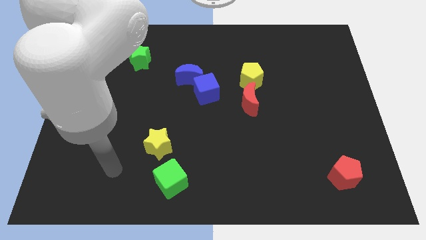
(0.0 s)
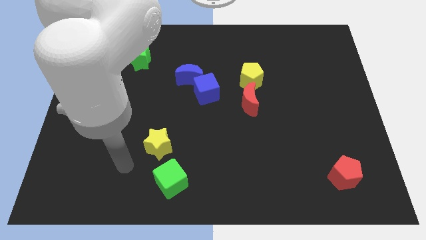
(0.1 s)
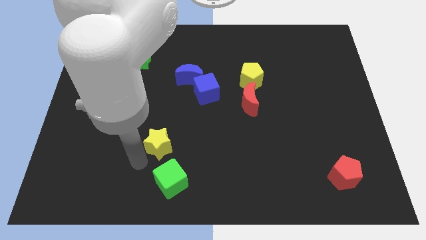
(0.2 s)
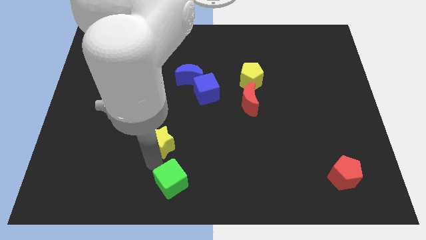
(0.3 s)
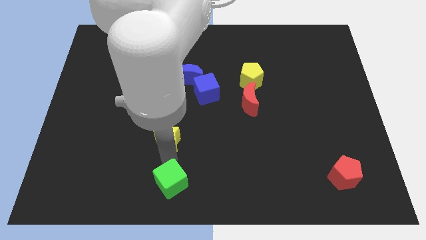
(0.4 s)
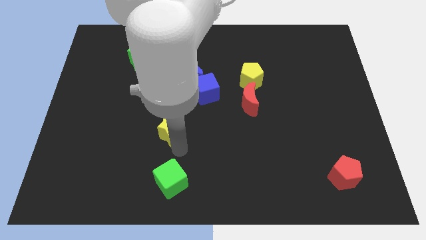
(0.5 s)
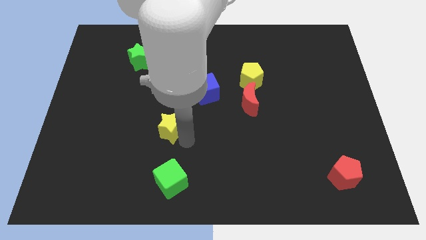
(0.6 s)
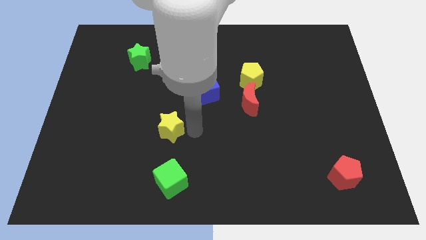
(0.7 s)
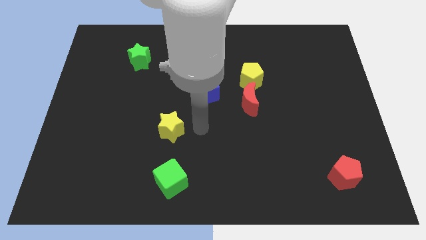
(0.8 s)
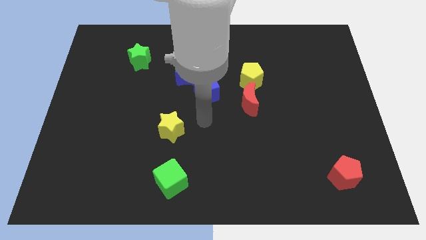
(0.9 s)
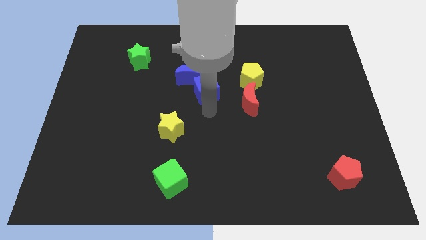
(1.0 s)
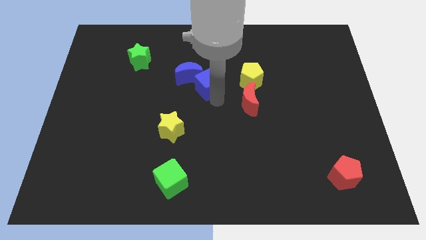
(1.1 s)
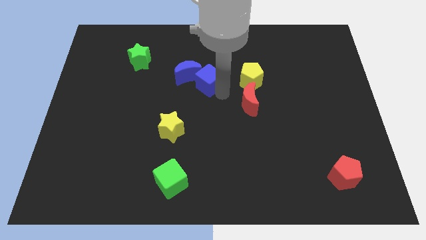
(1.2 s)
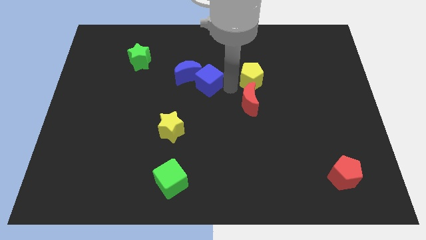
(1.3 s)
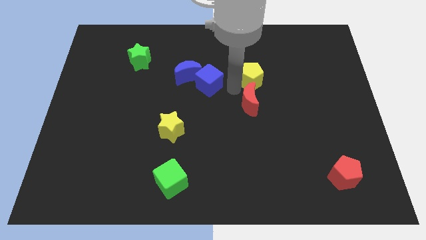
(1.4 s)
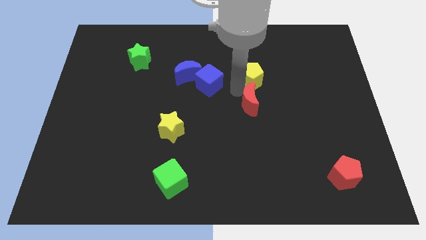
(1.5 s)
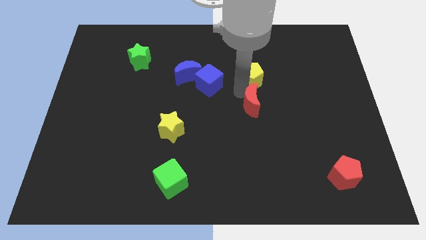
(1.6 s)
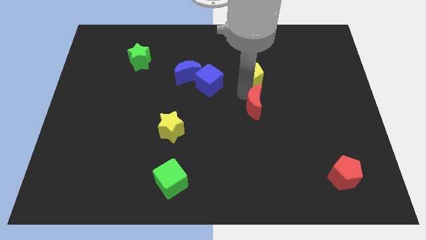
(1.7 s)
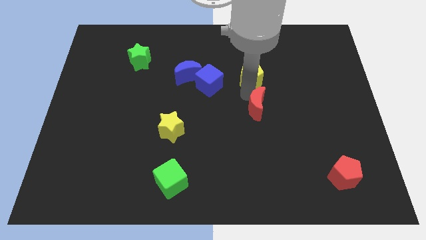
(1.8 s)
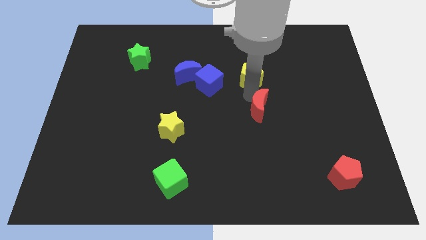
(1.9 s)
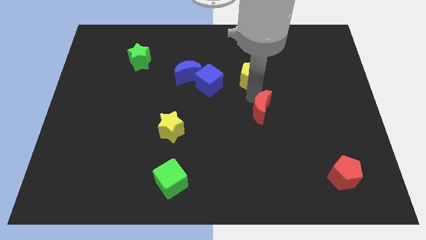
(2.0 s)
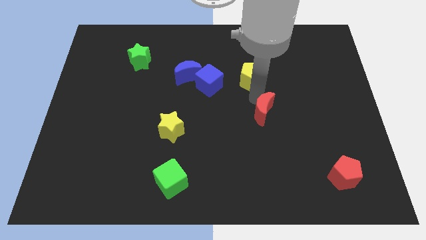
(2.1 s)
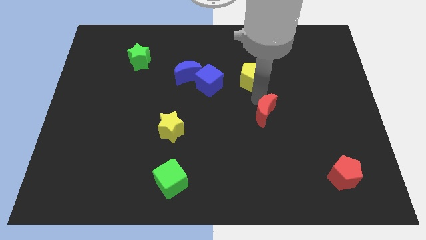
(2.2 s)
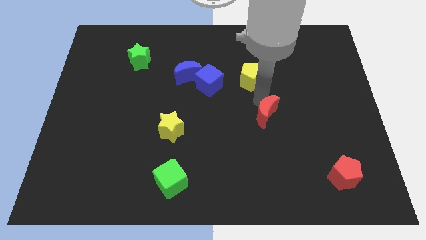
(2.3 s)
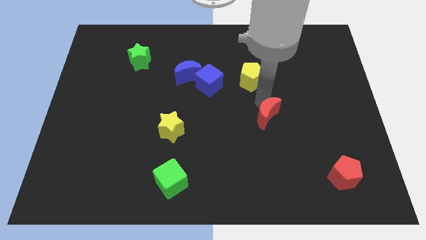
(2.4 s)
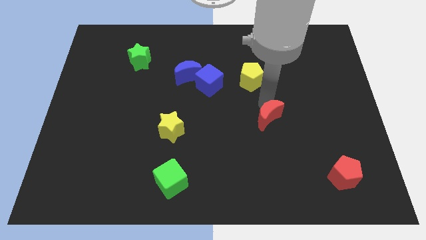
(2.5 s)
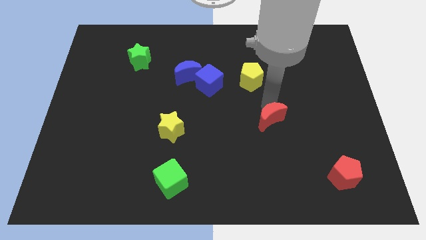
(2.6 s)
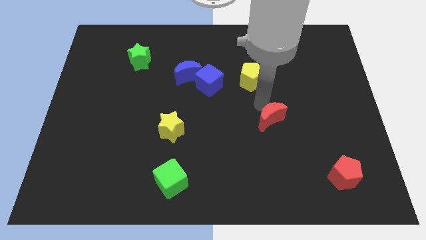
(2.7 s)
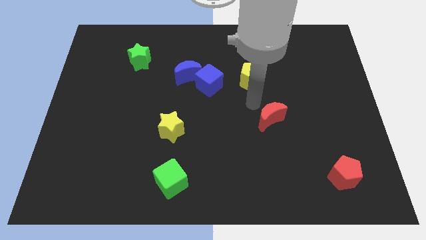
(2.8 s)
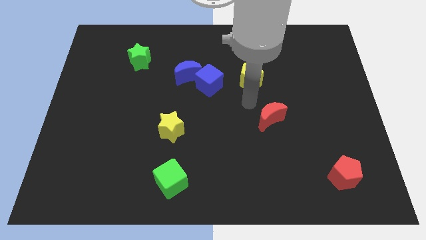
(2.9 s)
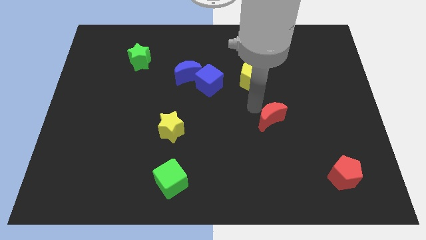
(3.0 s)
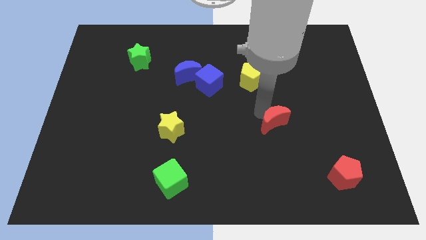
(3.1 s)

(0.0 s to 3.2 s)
move the red moon a little bit down and then right

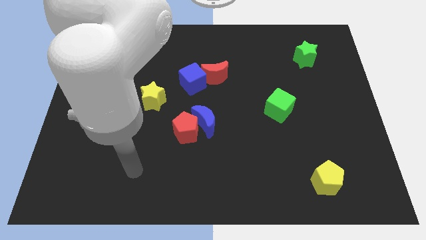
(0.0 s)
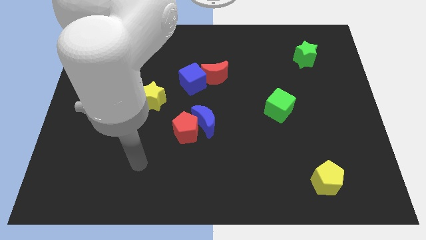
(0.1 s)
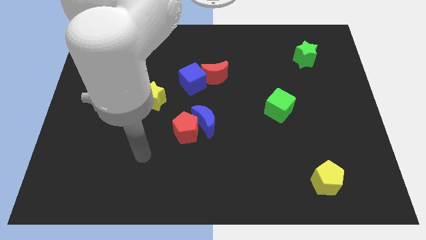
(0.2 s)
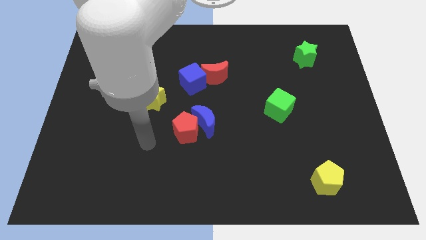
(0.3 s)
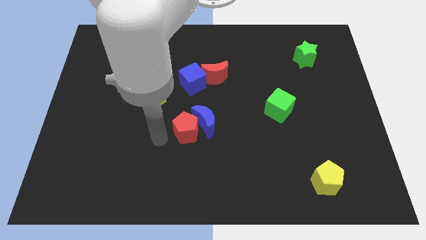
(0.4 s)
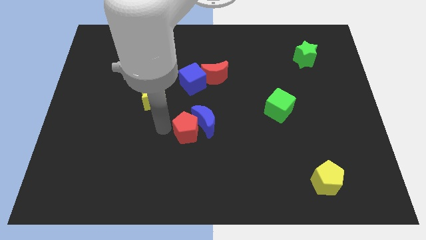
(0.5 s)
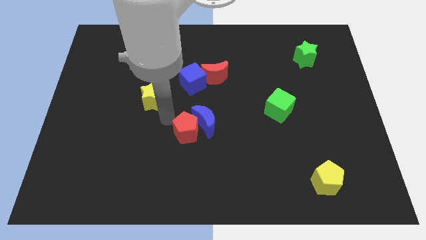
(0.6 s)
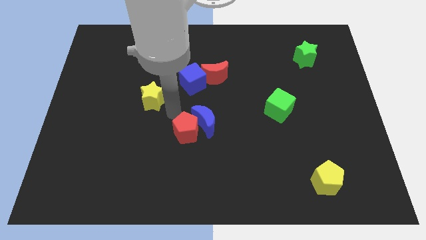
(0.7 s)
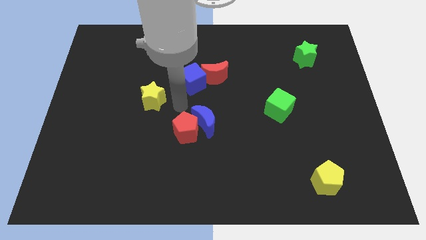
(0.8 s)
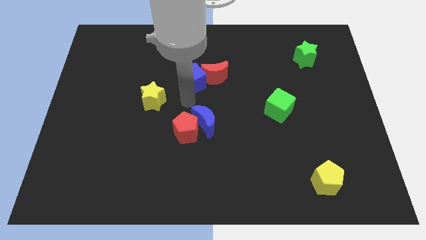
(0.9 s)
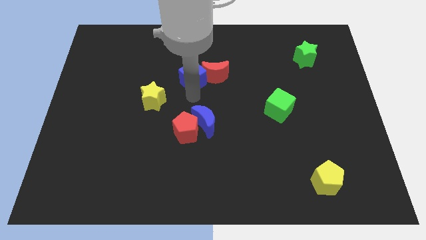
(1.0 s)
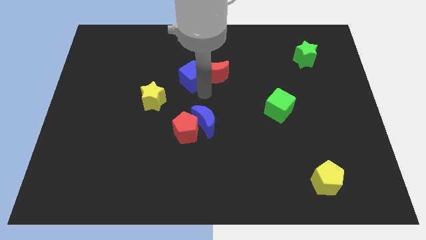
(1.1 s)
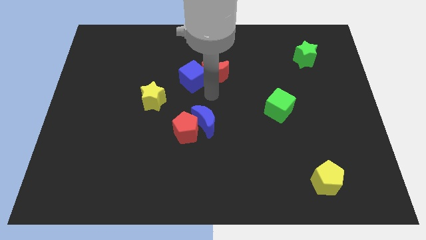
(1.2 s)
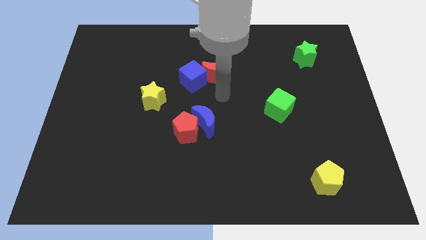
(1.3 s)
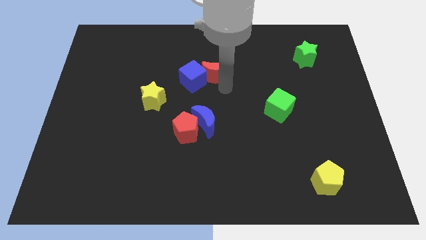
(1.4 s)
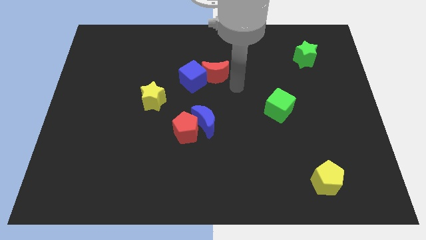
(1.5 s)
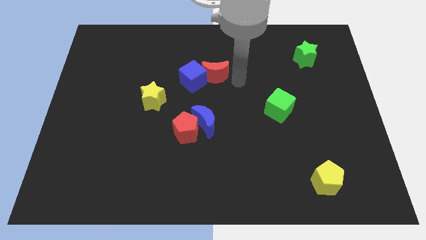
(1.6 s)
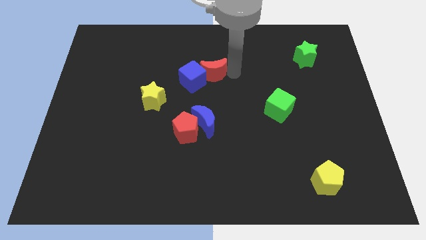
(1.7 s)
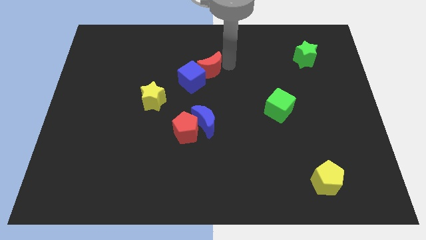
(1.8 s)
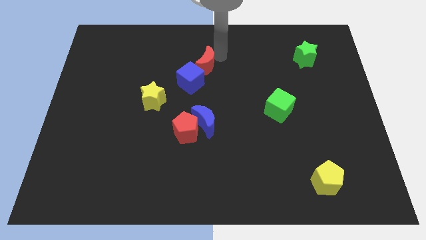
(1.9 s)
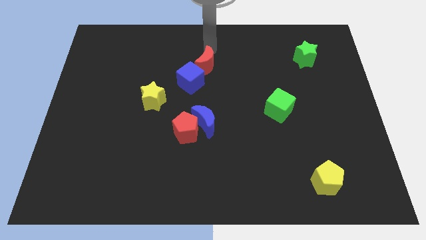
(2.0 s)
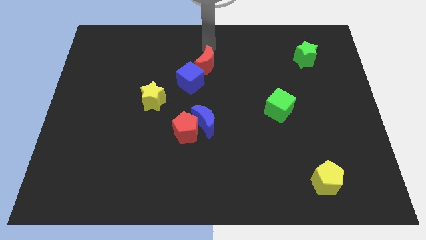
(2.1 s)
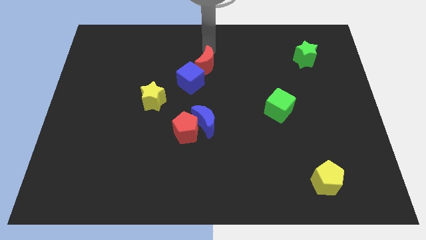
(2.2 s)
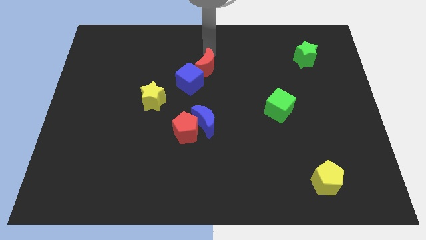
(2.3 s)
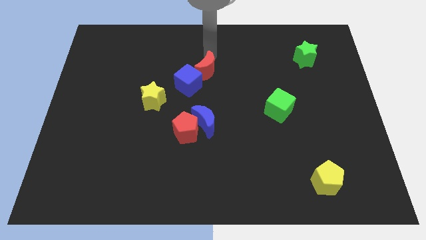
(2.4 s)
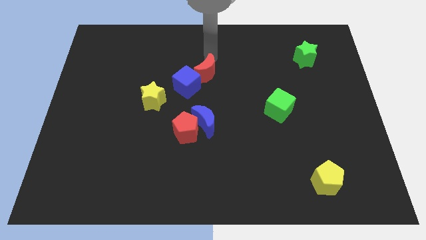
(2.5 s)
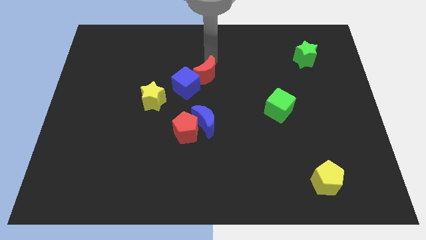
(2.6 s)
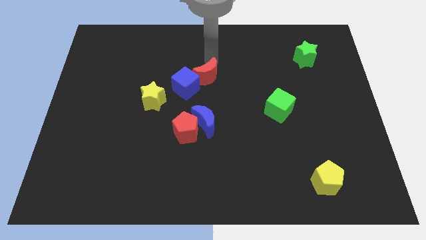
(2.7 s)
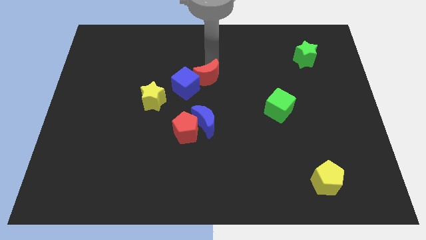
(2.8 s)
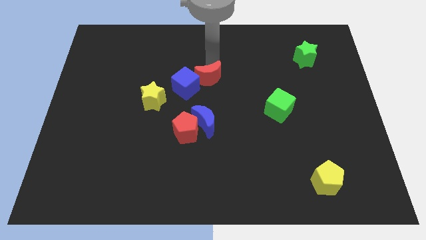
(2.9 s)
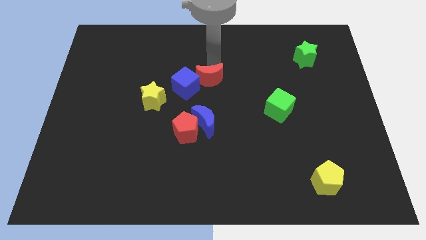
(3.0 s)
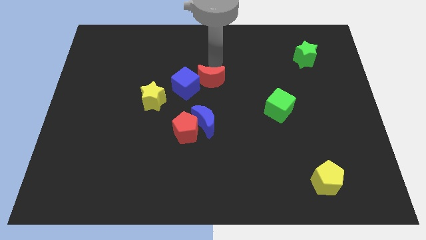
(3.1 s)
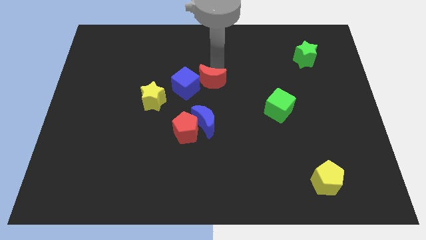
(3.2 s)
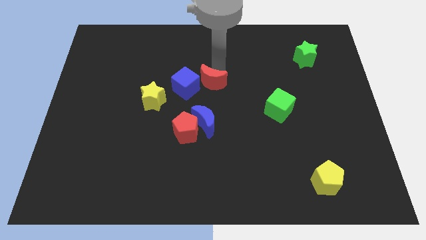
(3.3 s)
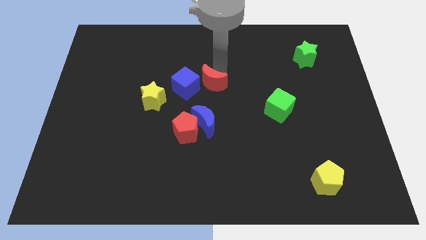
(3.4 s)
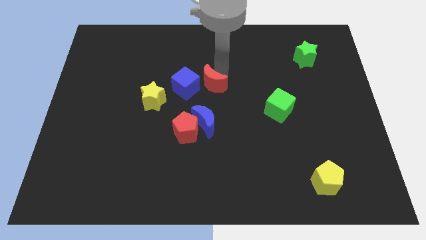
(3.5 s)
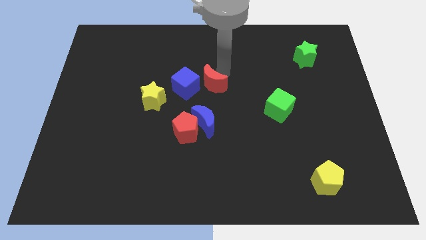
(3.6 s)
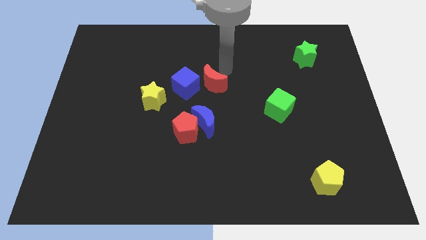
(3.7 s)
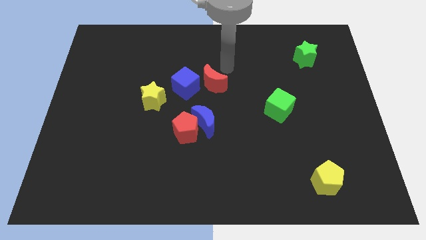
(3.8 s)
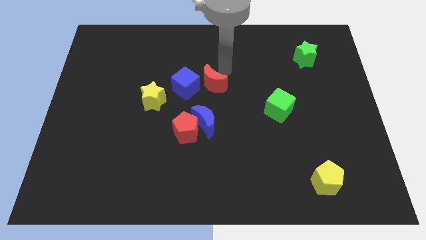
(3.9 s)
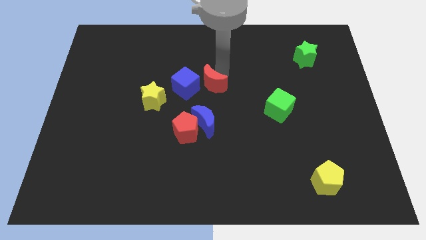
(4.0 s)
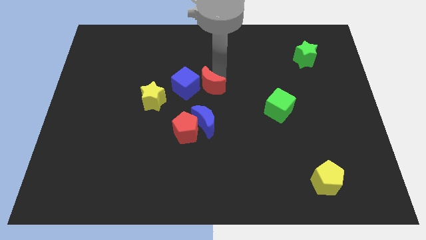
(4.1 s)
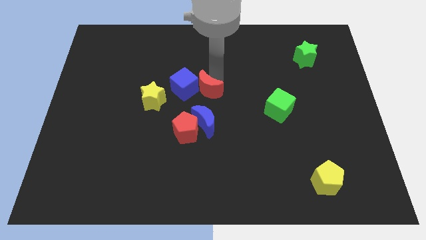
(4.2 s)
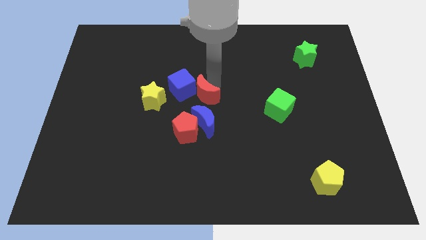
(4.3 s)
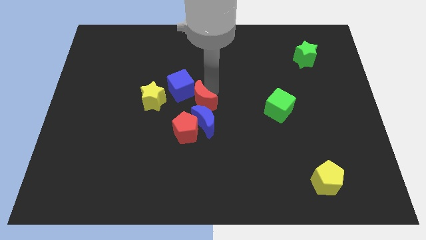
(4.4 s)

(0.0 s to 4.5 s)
move the red moon down and then left slightly

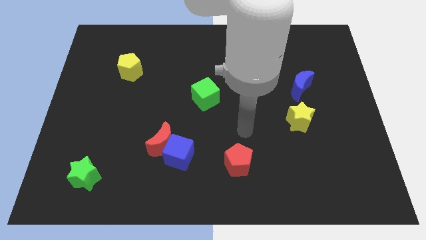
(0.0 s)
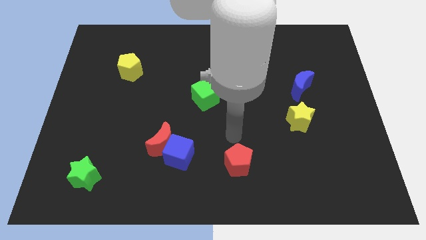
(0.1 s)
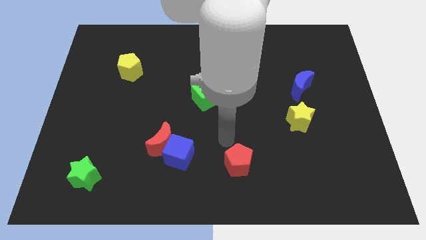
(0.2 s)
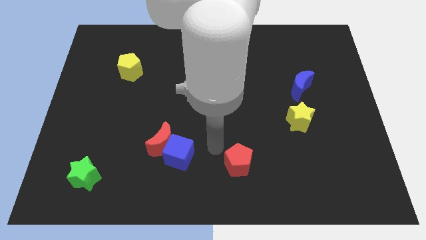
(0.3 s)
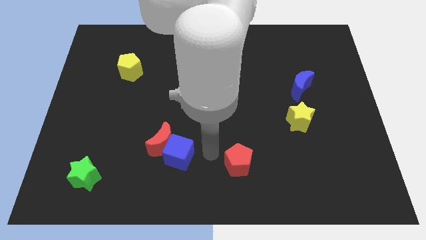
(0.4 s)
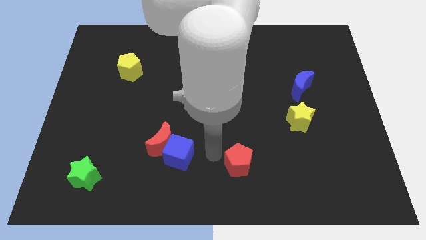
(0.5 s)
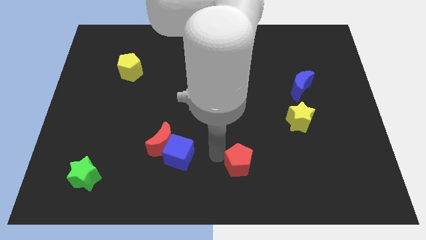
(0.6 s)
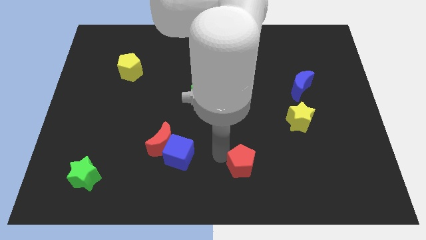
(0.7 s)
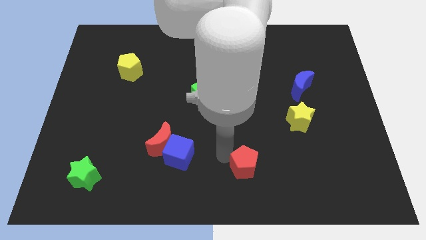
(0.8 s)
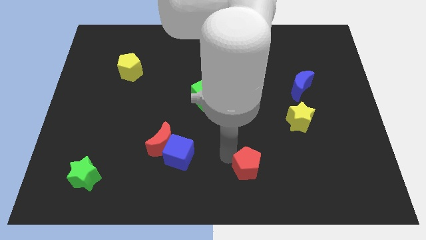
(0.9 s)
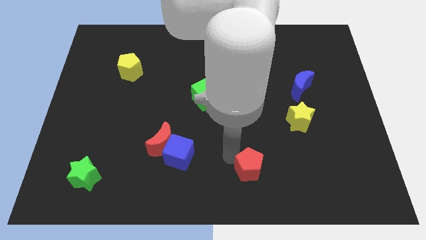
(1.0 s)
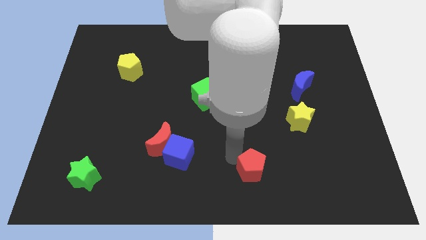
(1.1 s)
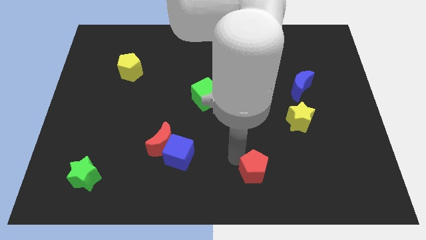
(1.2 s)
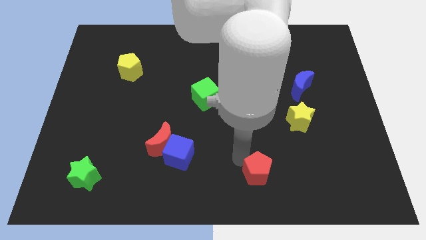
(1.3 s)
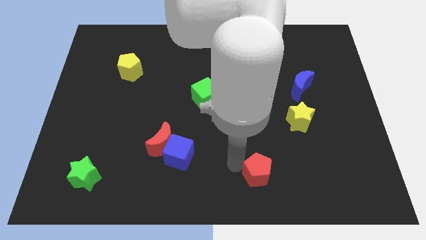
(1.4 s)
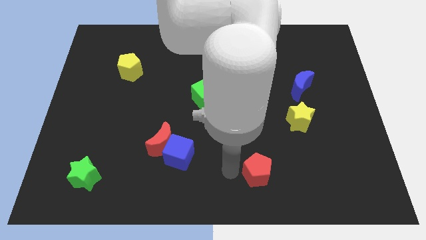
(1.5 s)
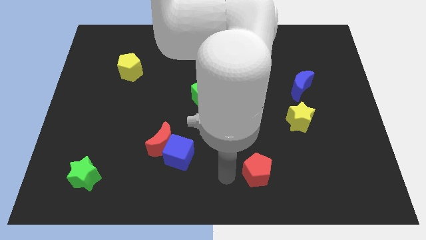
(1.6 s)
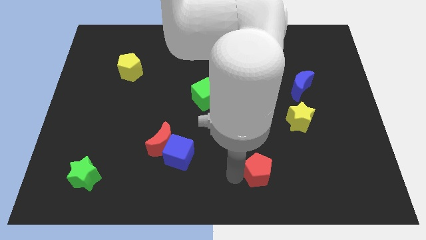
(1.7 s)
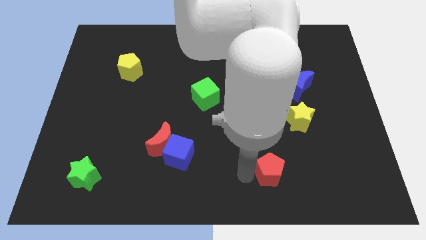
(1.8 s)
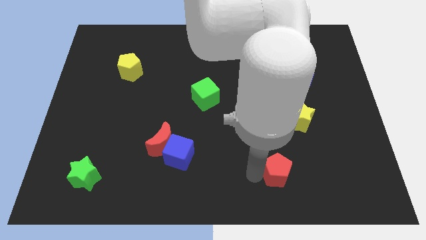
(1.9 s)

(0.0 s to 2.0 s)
slightly move the red pentagon to the right
